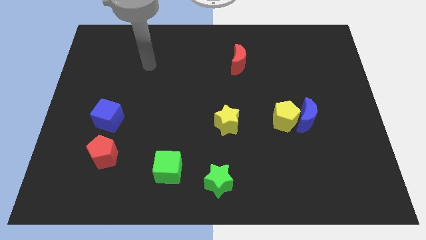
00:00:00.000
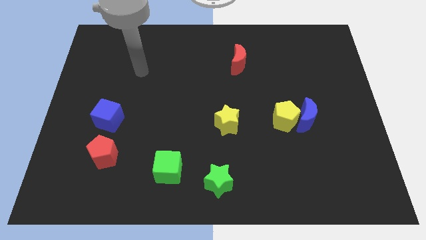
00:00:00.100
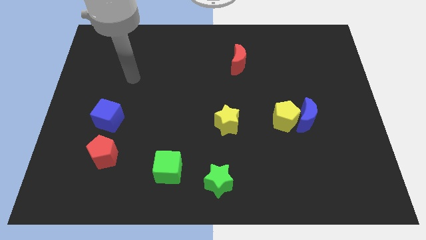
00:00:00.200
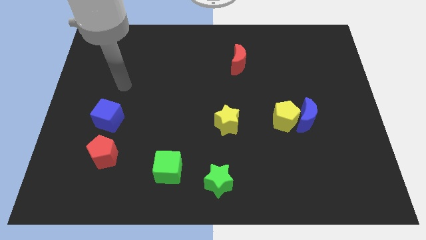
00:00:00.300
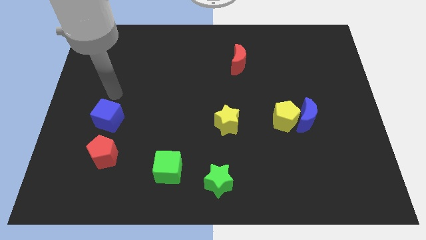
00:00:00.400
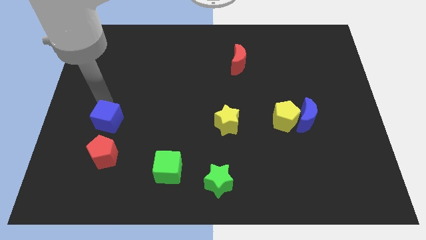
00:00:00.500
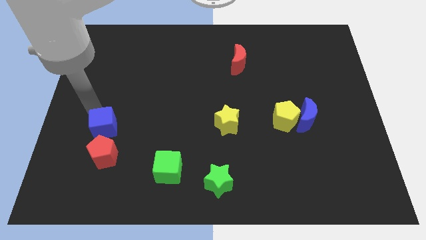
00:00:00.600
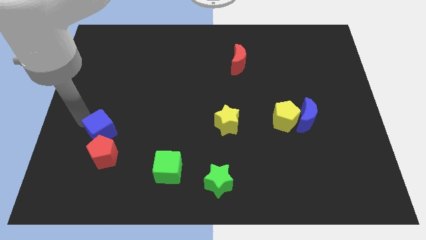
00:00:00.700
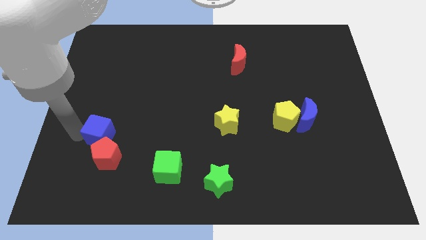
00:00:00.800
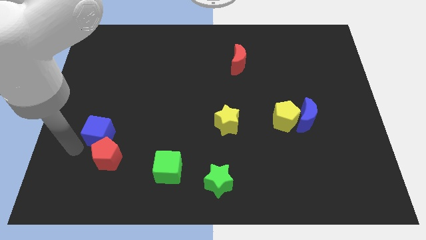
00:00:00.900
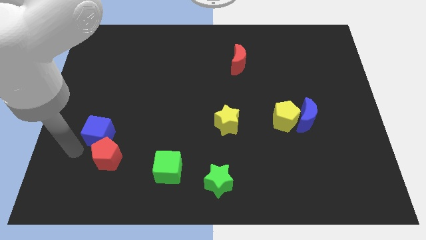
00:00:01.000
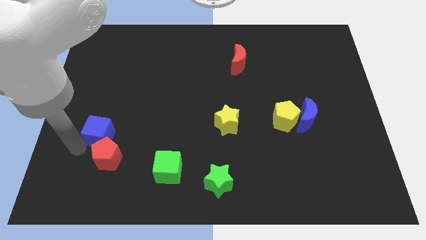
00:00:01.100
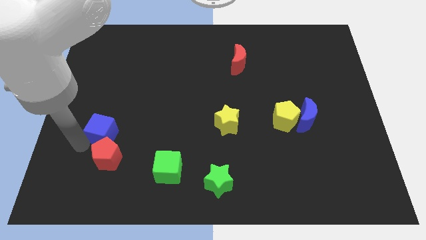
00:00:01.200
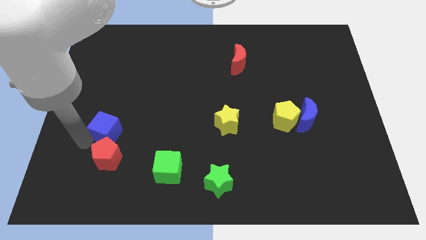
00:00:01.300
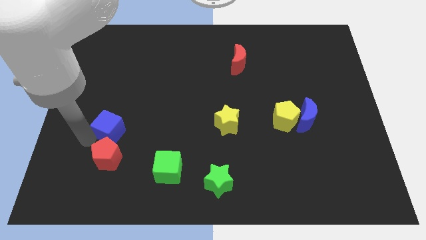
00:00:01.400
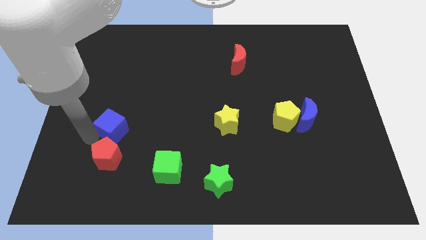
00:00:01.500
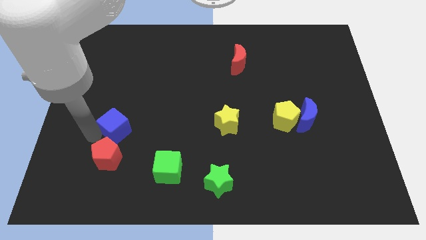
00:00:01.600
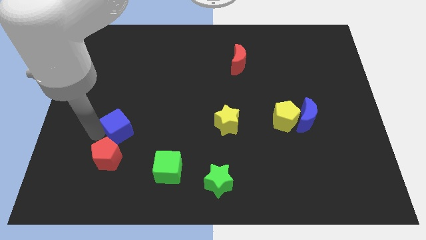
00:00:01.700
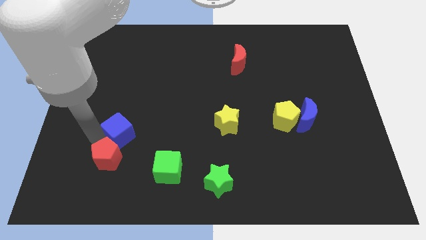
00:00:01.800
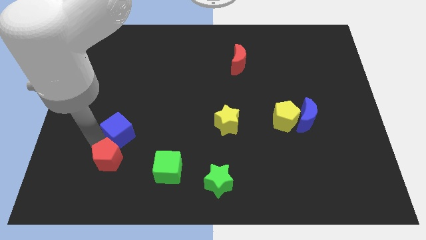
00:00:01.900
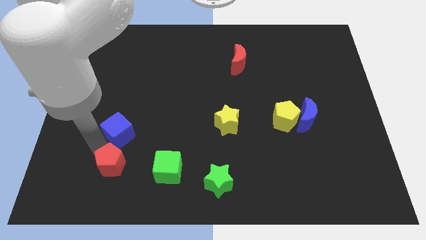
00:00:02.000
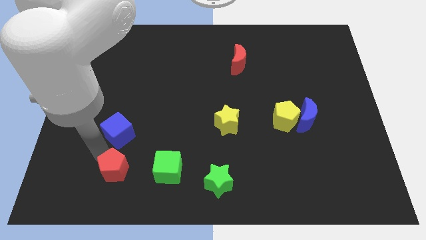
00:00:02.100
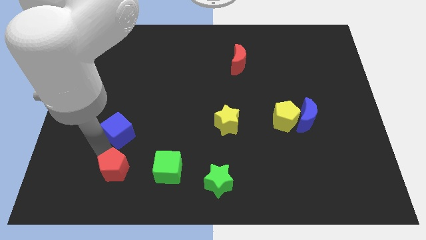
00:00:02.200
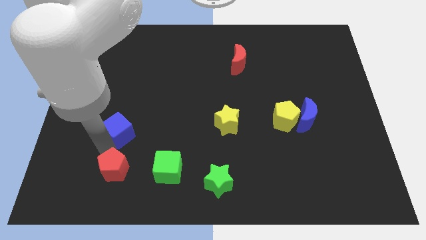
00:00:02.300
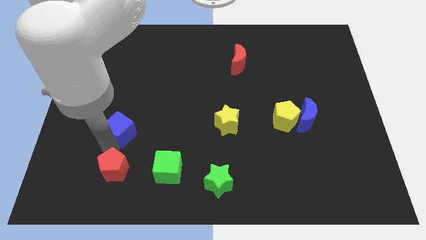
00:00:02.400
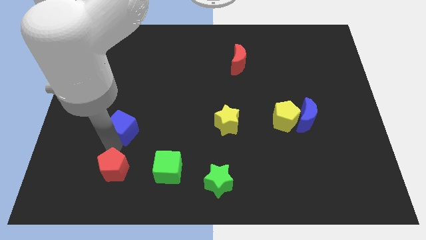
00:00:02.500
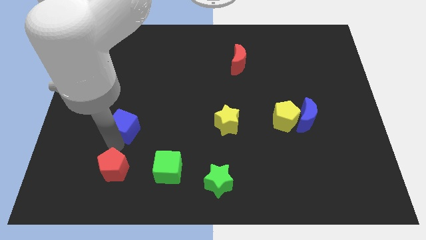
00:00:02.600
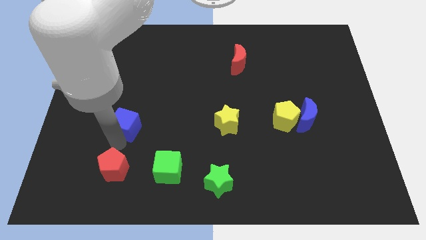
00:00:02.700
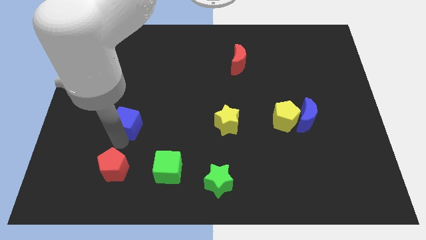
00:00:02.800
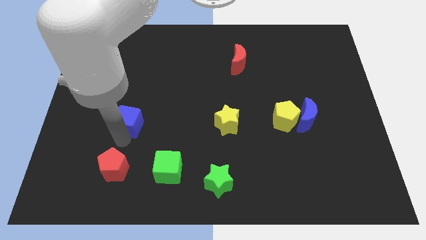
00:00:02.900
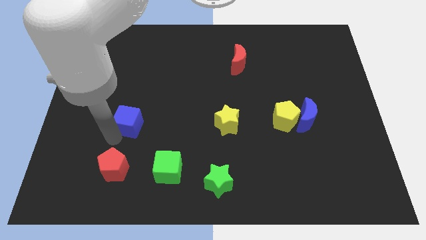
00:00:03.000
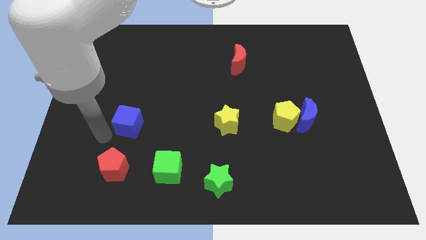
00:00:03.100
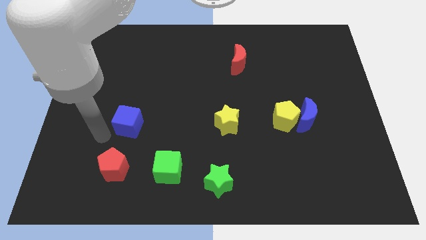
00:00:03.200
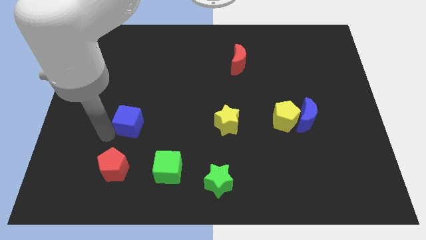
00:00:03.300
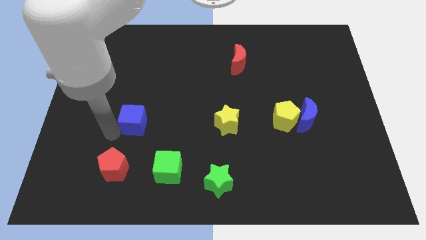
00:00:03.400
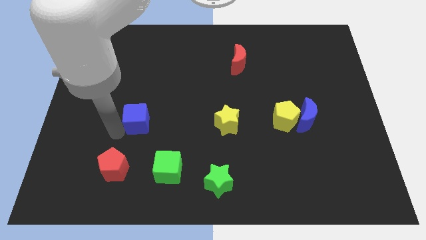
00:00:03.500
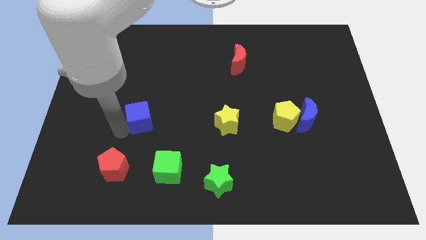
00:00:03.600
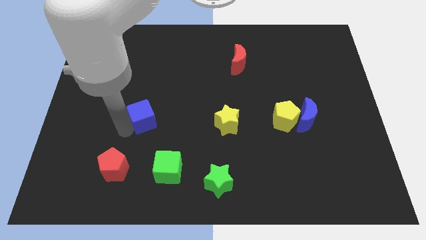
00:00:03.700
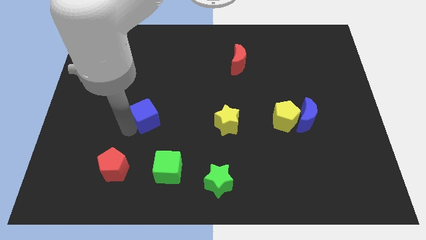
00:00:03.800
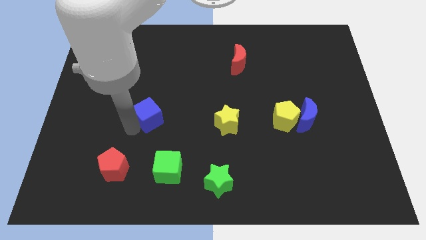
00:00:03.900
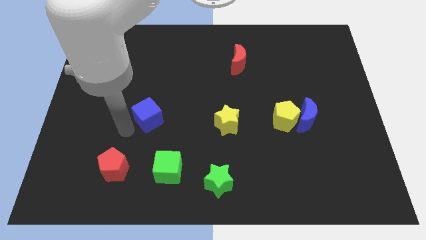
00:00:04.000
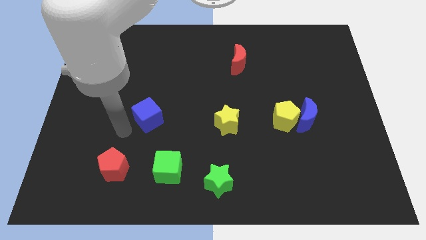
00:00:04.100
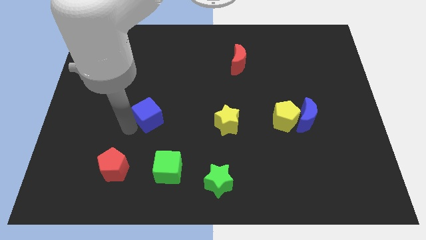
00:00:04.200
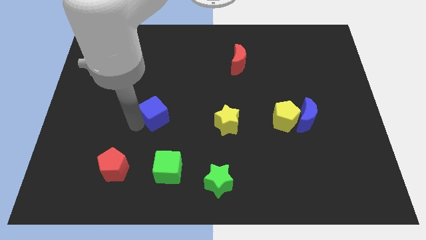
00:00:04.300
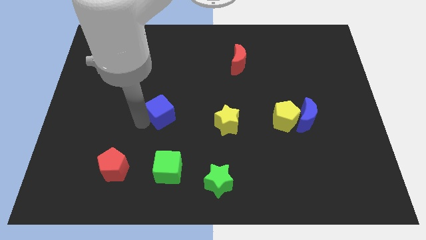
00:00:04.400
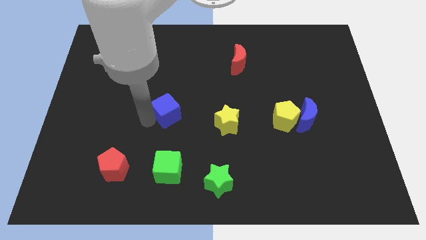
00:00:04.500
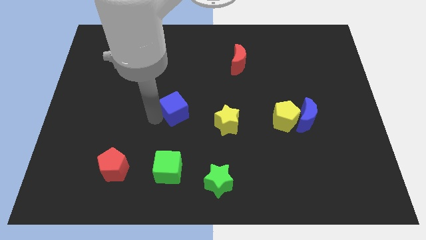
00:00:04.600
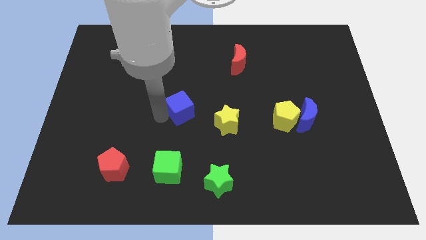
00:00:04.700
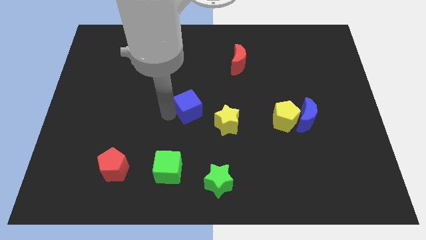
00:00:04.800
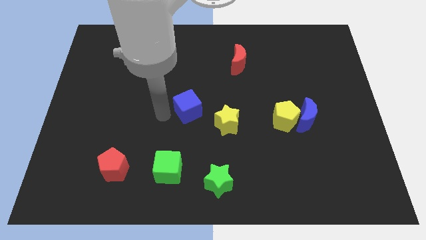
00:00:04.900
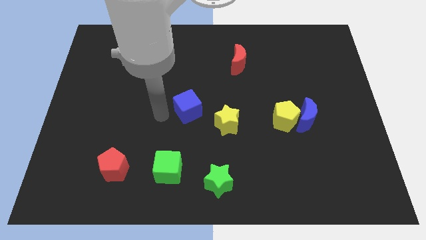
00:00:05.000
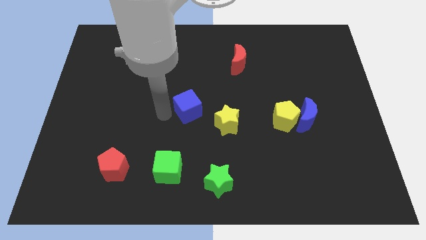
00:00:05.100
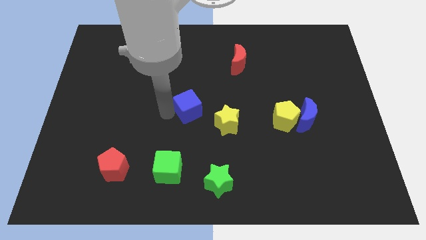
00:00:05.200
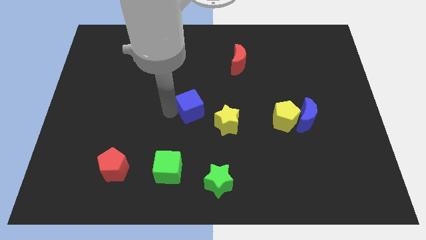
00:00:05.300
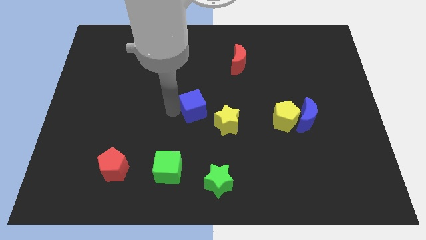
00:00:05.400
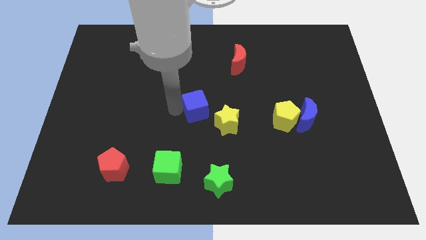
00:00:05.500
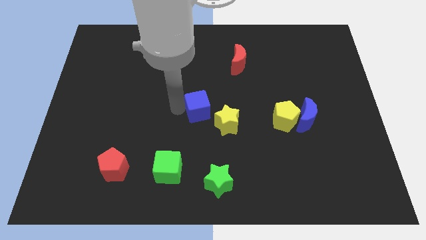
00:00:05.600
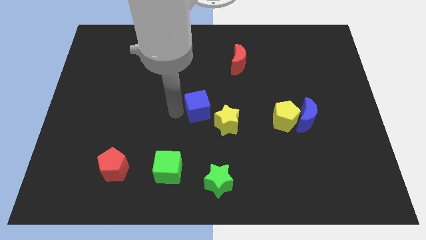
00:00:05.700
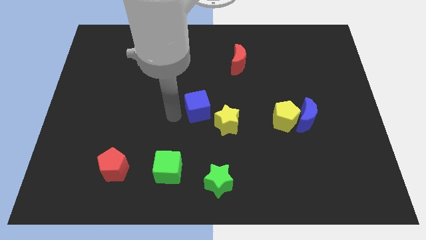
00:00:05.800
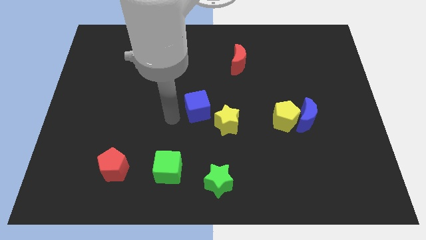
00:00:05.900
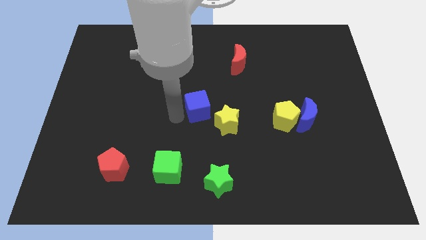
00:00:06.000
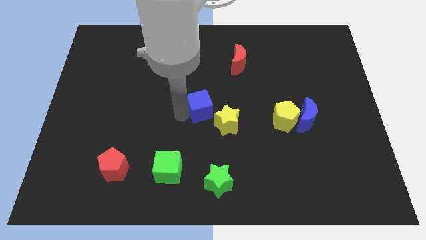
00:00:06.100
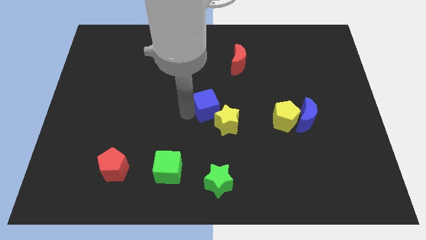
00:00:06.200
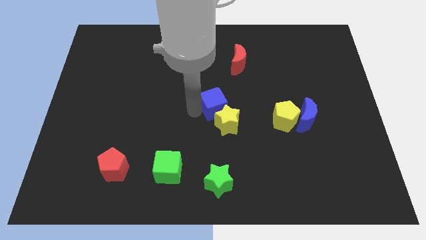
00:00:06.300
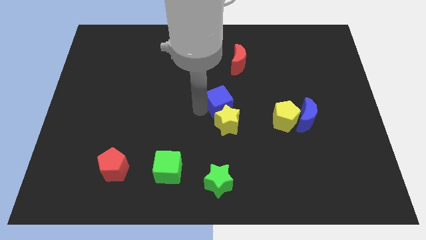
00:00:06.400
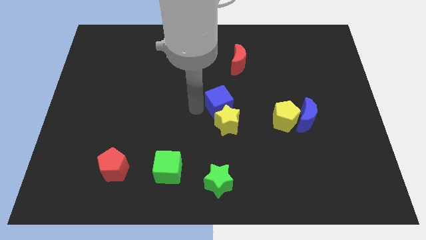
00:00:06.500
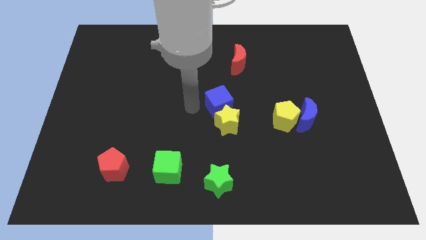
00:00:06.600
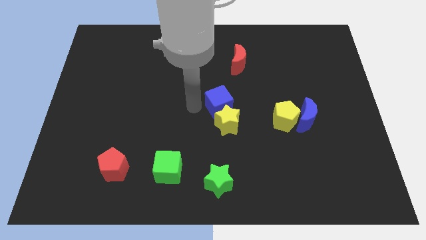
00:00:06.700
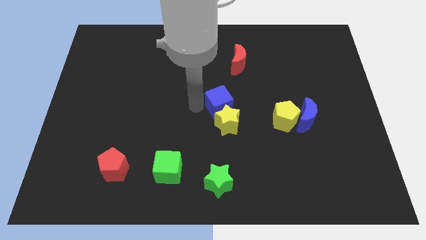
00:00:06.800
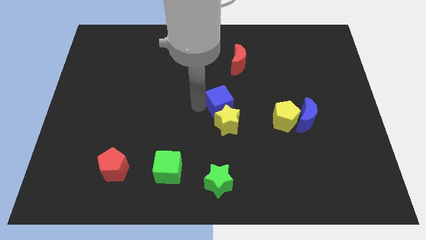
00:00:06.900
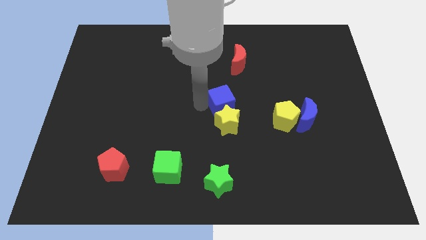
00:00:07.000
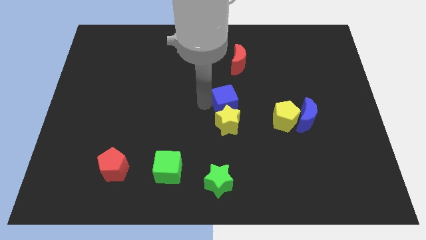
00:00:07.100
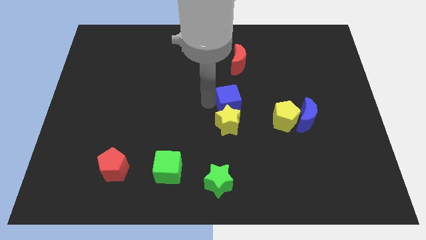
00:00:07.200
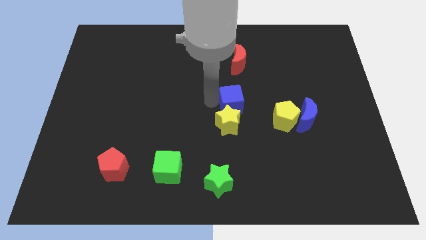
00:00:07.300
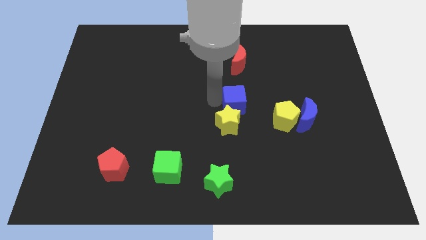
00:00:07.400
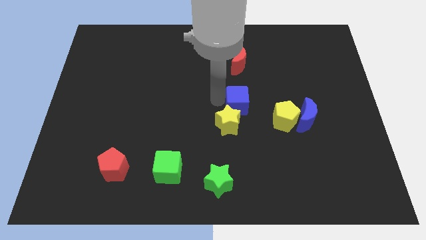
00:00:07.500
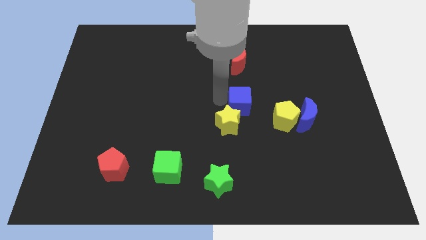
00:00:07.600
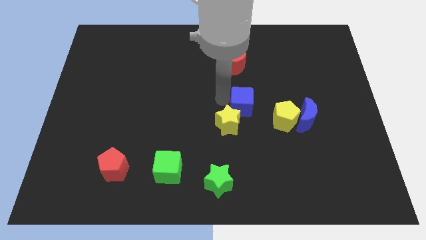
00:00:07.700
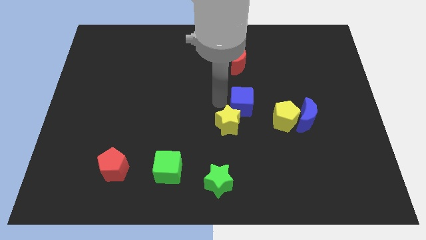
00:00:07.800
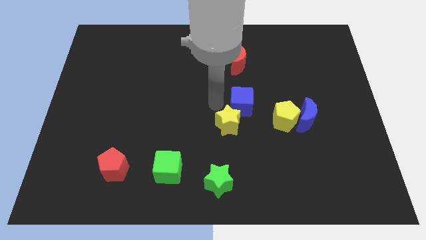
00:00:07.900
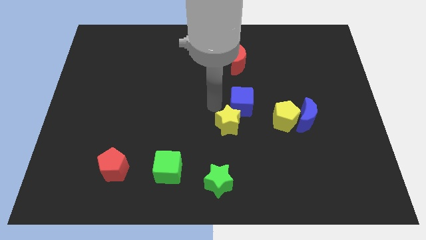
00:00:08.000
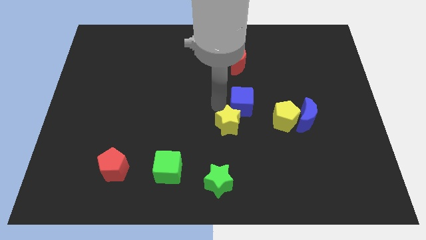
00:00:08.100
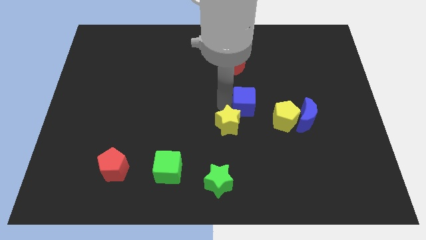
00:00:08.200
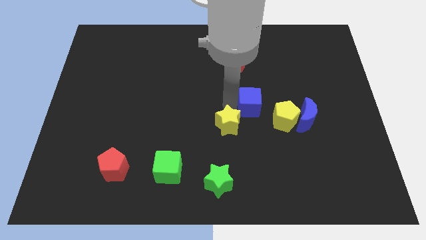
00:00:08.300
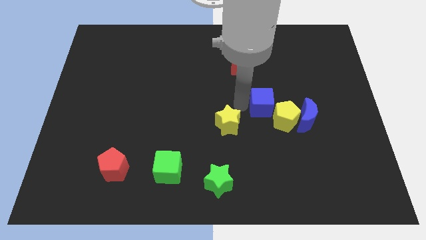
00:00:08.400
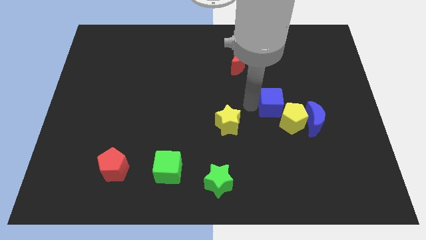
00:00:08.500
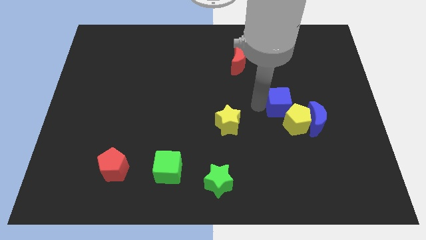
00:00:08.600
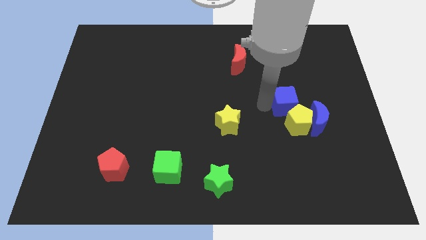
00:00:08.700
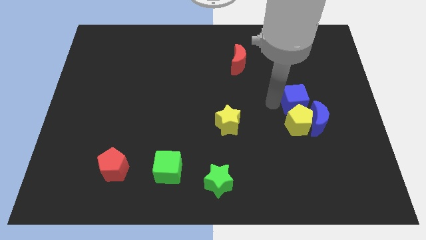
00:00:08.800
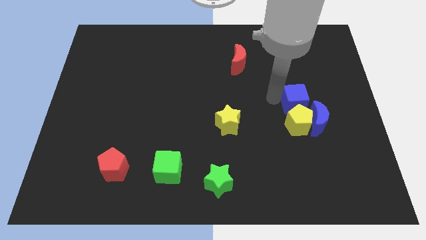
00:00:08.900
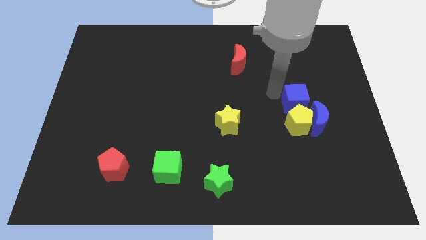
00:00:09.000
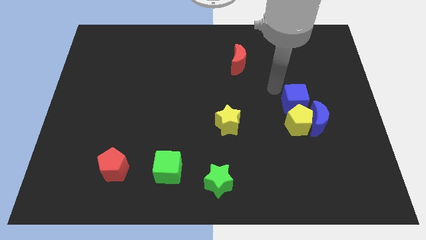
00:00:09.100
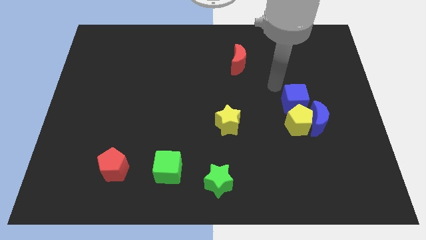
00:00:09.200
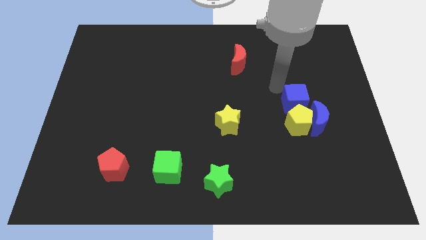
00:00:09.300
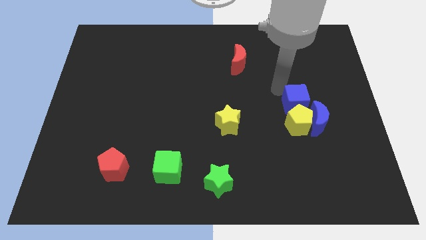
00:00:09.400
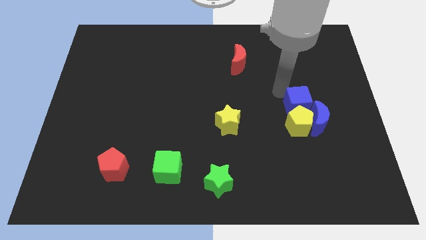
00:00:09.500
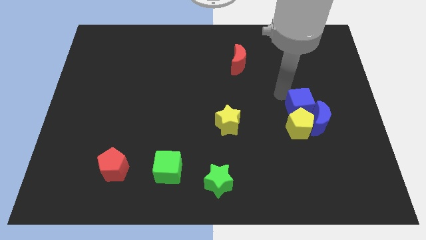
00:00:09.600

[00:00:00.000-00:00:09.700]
slide the blue cube close to the blue moon
